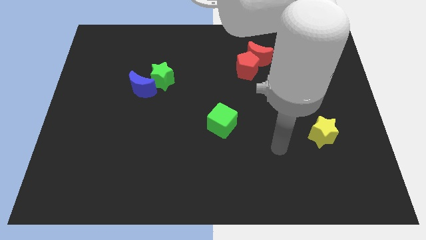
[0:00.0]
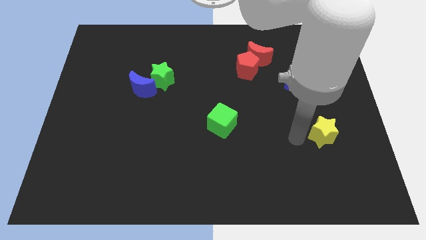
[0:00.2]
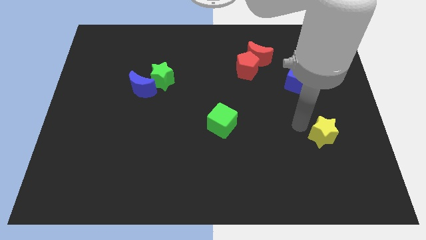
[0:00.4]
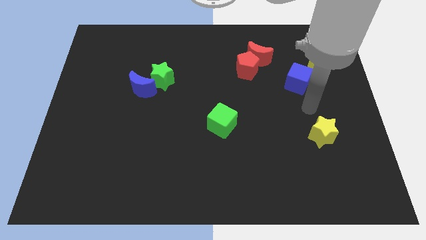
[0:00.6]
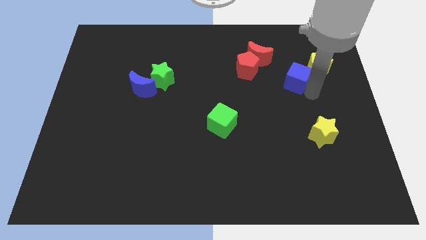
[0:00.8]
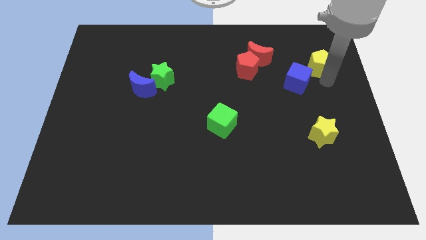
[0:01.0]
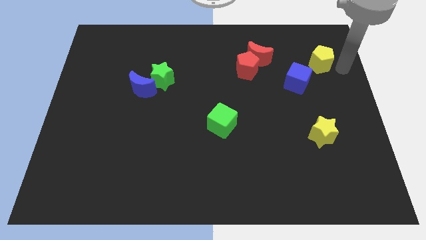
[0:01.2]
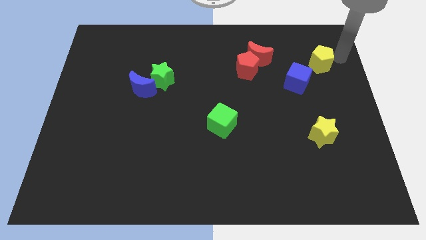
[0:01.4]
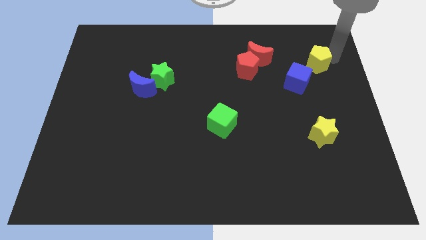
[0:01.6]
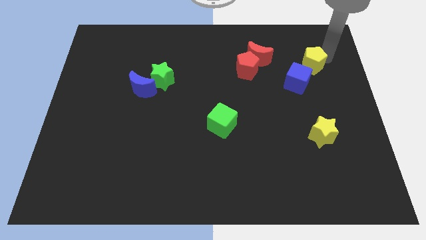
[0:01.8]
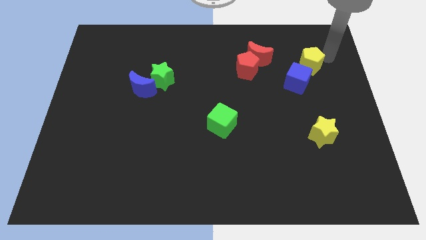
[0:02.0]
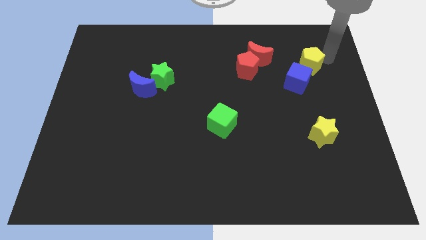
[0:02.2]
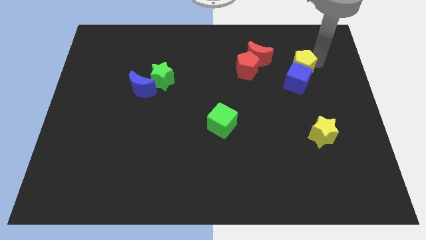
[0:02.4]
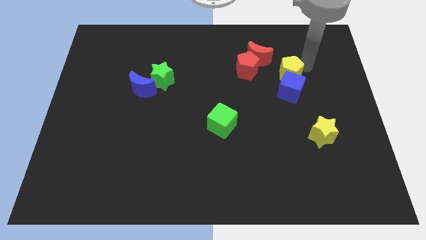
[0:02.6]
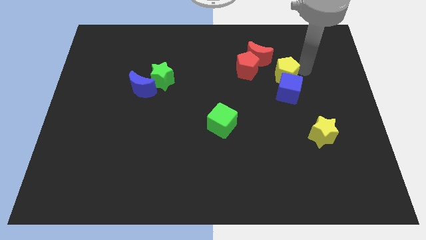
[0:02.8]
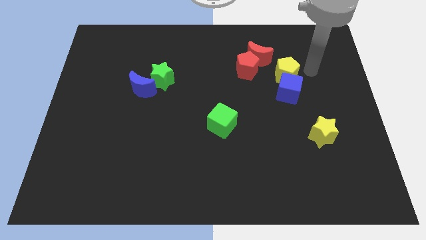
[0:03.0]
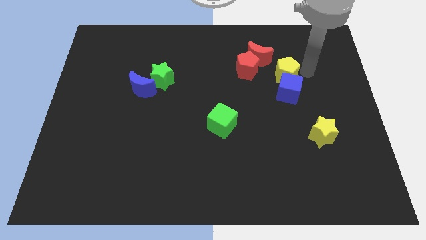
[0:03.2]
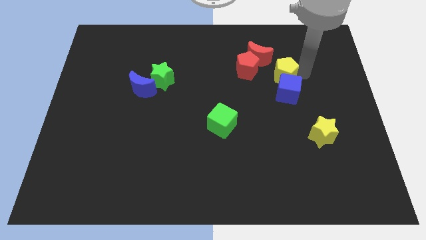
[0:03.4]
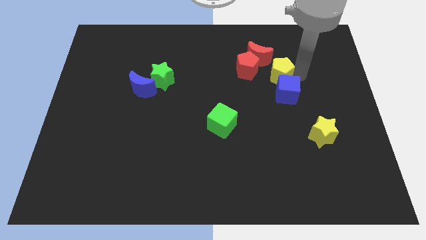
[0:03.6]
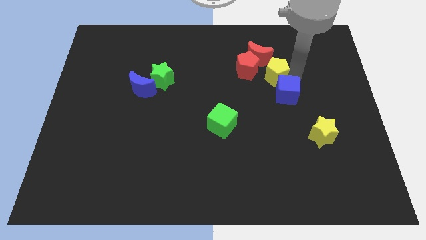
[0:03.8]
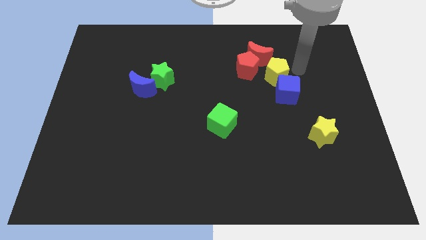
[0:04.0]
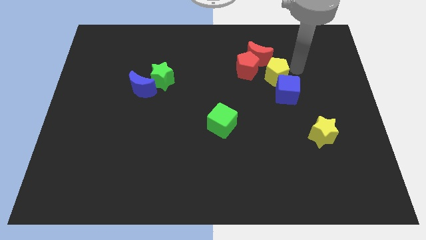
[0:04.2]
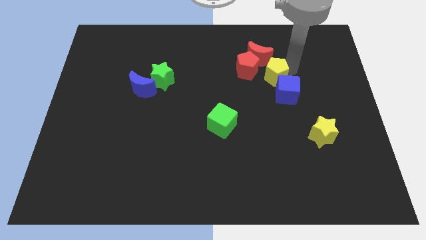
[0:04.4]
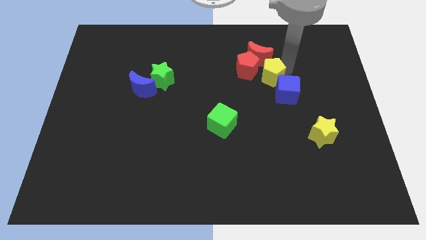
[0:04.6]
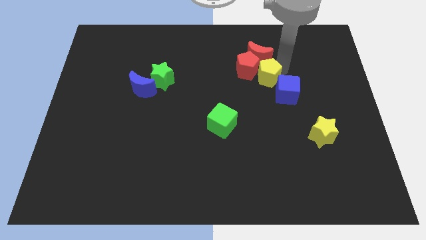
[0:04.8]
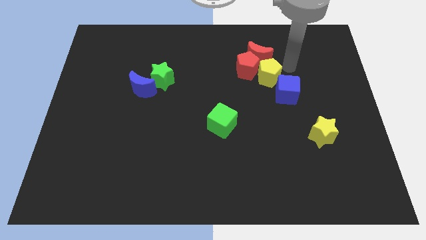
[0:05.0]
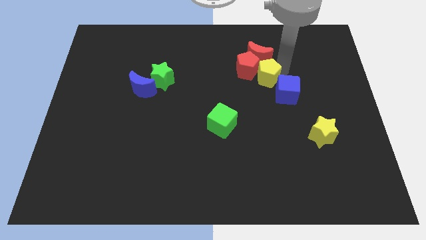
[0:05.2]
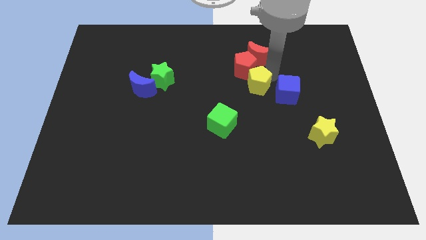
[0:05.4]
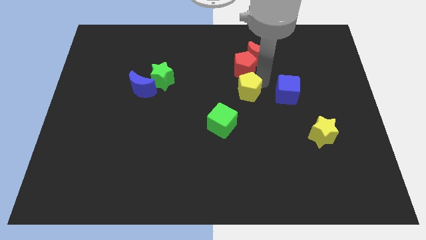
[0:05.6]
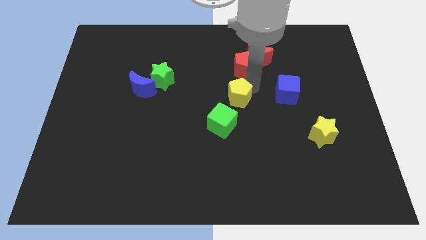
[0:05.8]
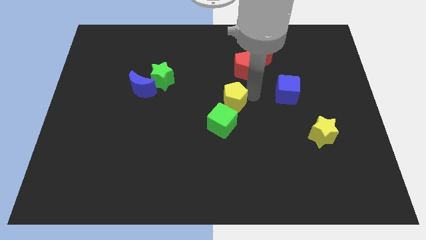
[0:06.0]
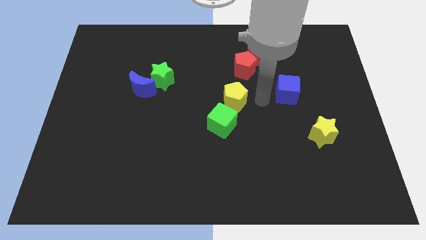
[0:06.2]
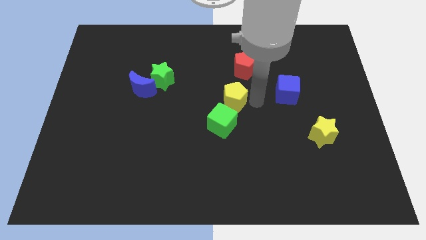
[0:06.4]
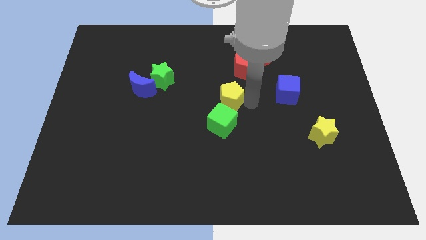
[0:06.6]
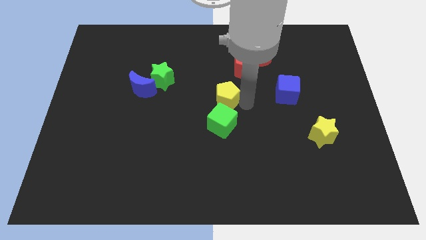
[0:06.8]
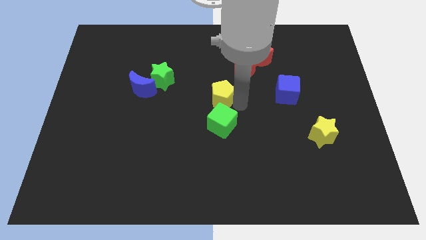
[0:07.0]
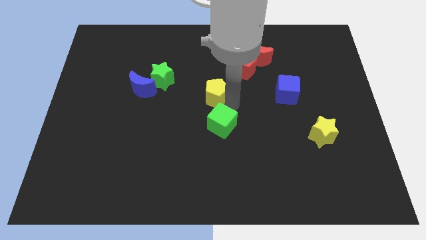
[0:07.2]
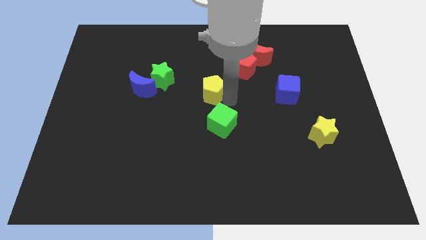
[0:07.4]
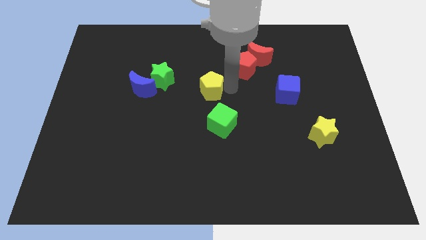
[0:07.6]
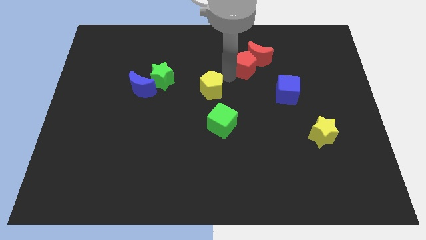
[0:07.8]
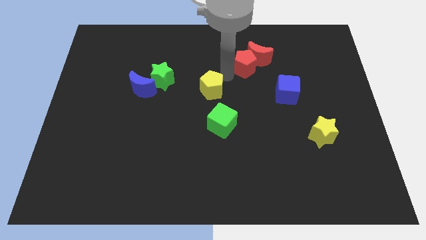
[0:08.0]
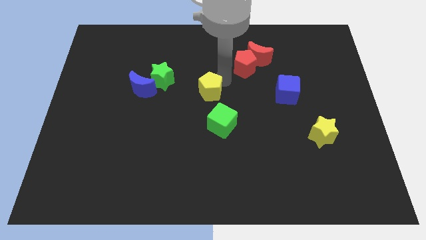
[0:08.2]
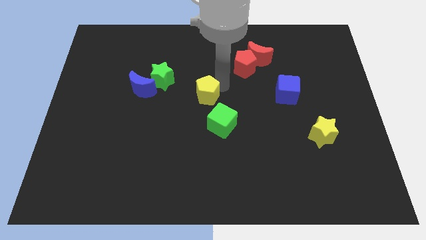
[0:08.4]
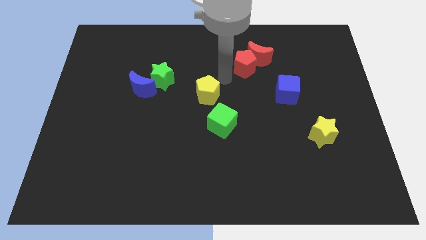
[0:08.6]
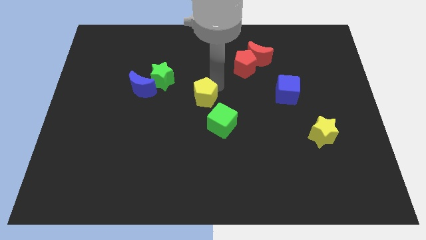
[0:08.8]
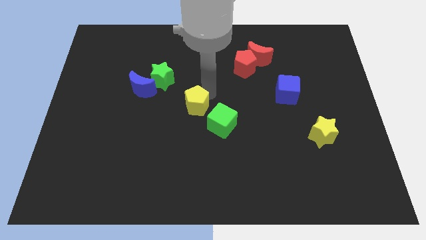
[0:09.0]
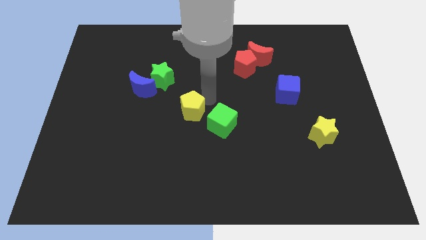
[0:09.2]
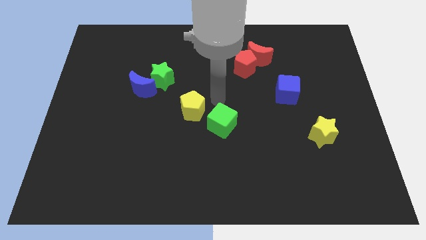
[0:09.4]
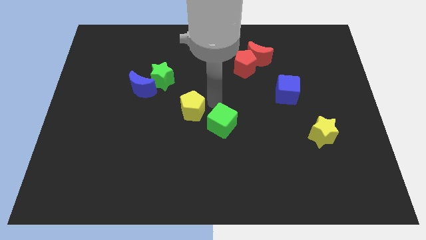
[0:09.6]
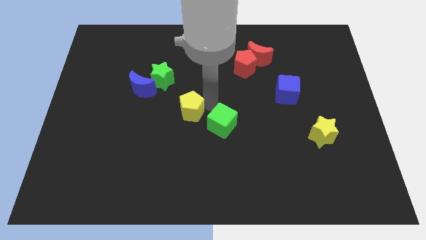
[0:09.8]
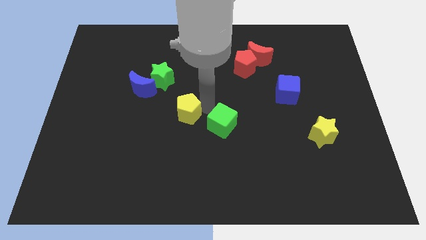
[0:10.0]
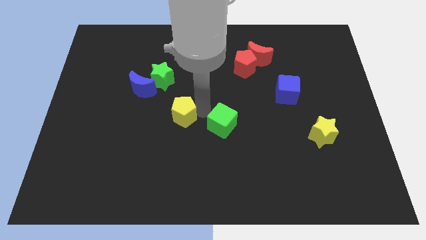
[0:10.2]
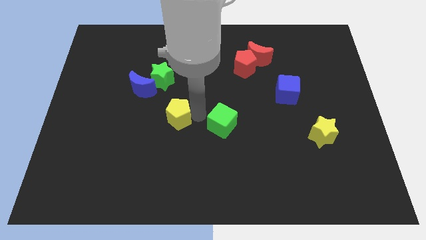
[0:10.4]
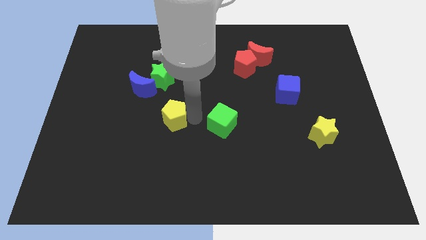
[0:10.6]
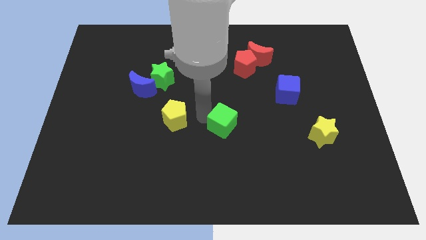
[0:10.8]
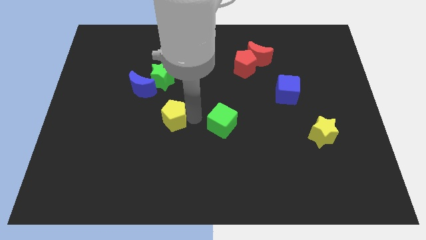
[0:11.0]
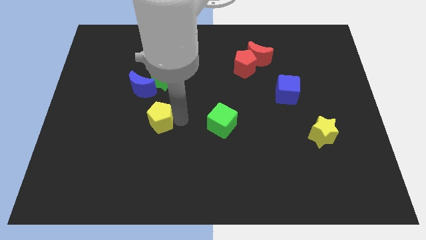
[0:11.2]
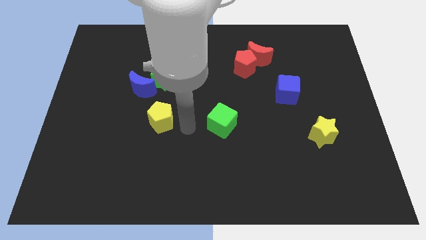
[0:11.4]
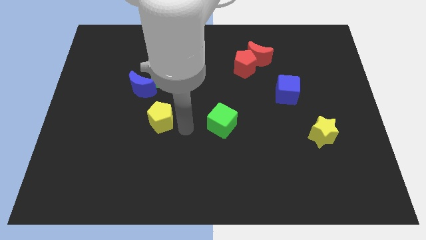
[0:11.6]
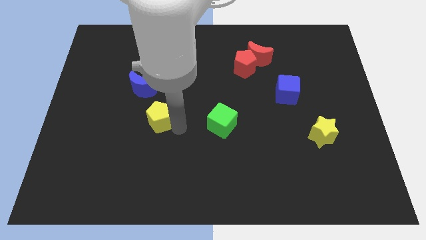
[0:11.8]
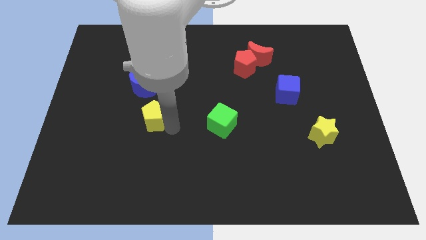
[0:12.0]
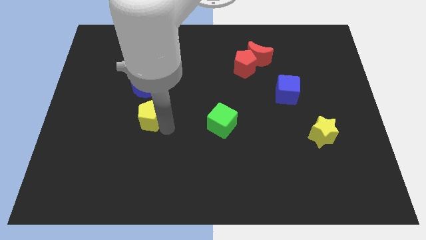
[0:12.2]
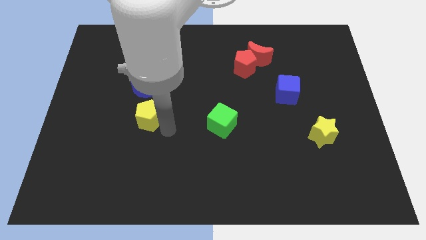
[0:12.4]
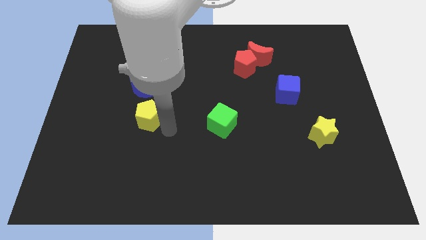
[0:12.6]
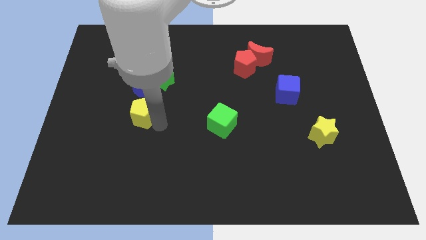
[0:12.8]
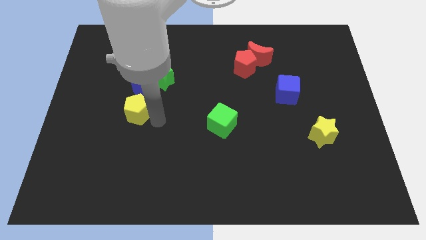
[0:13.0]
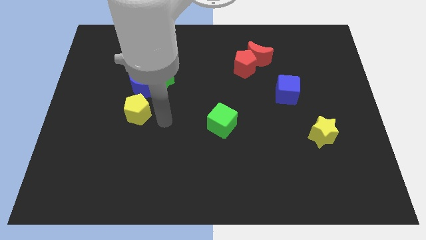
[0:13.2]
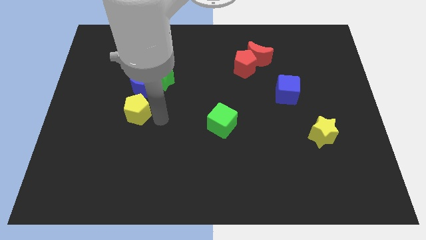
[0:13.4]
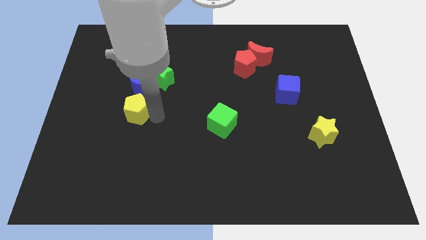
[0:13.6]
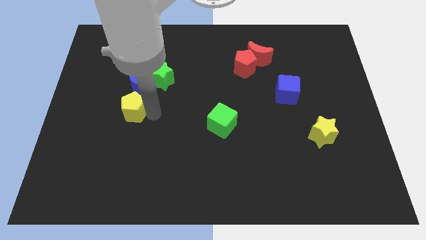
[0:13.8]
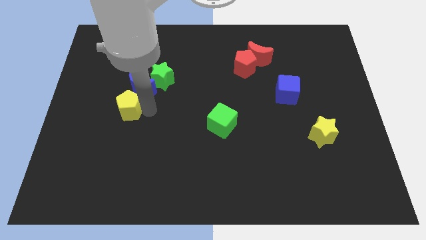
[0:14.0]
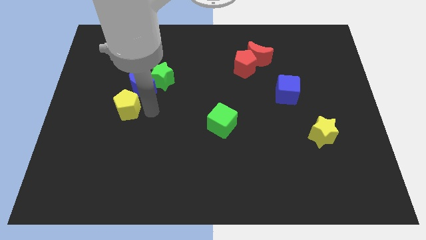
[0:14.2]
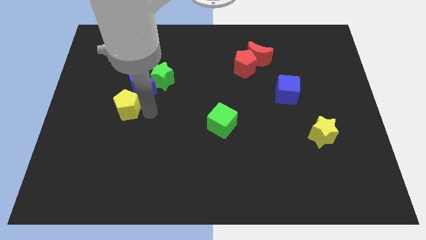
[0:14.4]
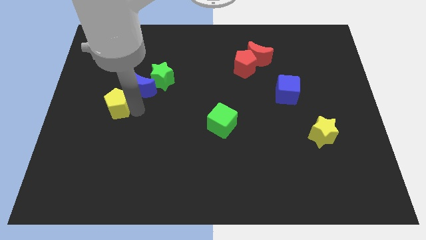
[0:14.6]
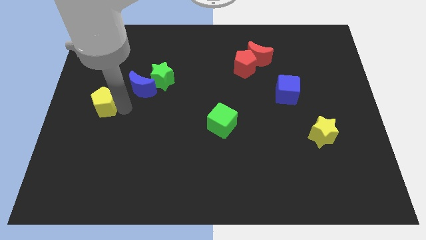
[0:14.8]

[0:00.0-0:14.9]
slide the yellow pentagon to the left side
